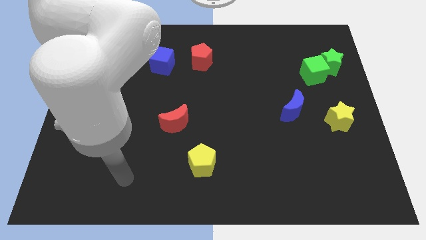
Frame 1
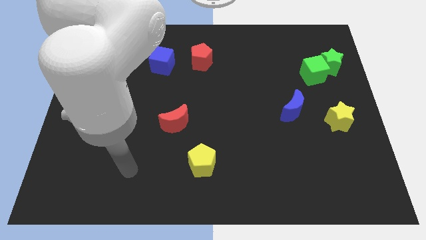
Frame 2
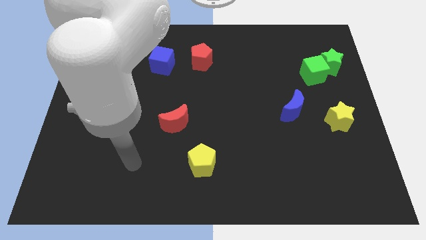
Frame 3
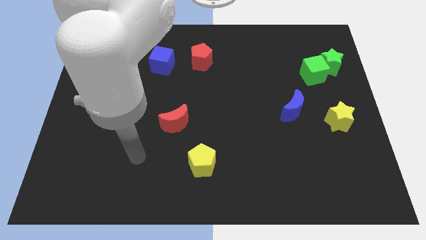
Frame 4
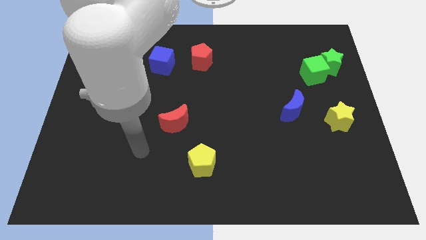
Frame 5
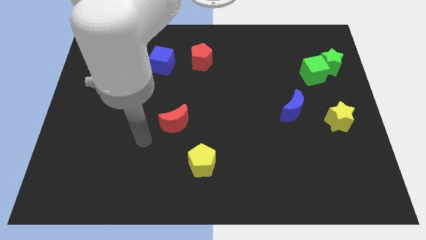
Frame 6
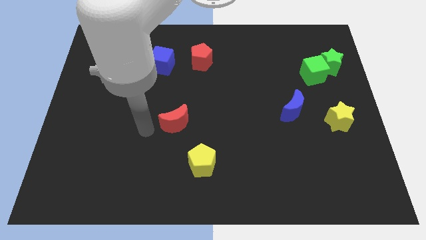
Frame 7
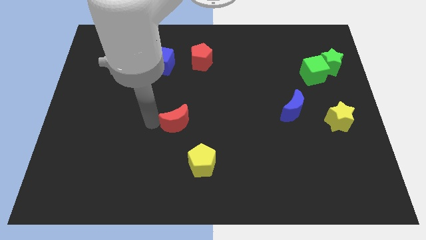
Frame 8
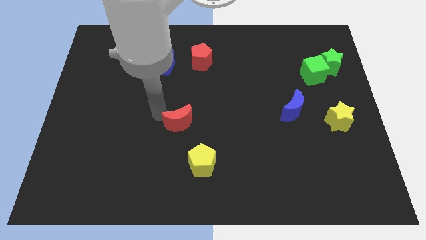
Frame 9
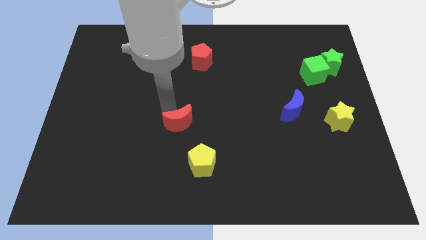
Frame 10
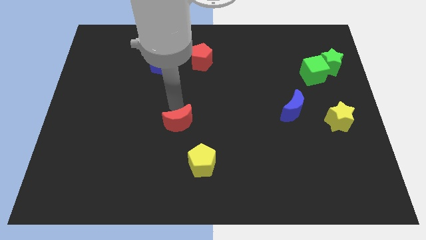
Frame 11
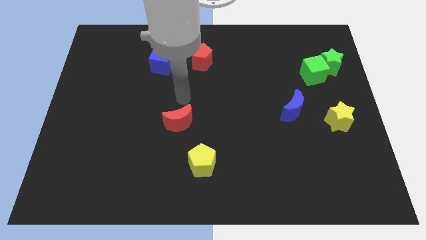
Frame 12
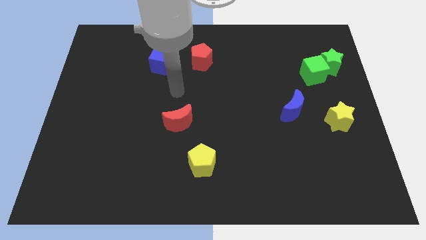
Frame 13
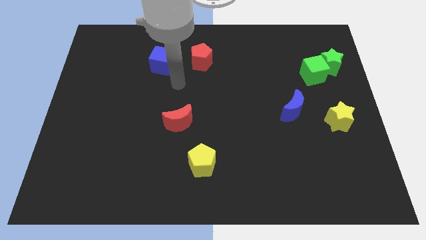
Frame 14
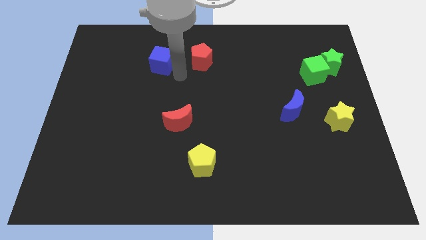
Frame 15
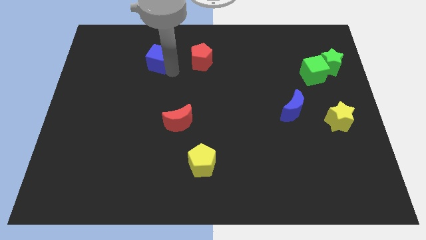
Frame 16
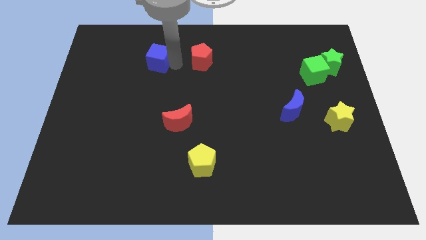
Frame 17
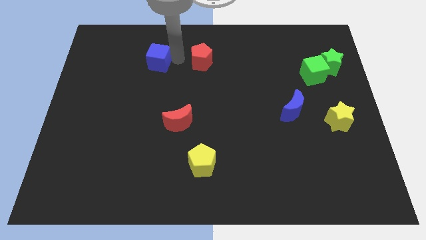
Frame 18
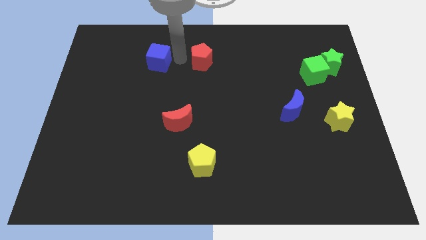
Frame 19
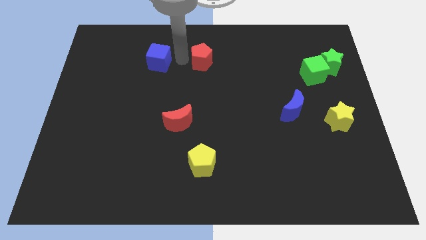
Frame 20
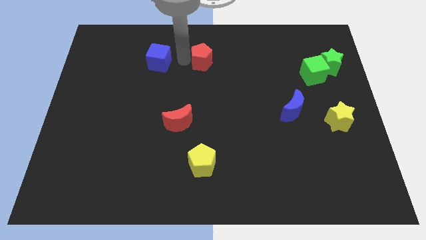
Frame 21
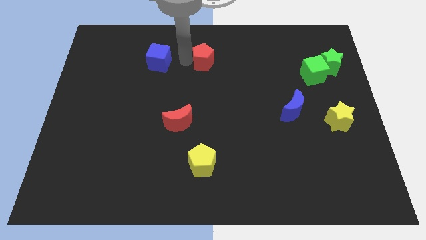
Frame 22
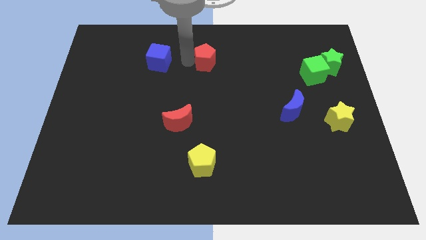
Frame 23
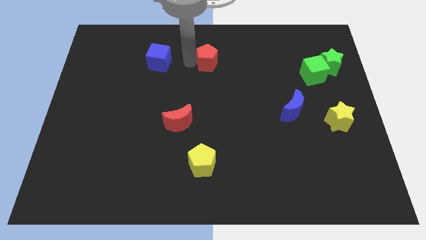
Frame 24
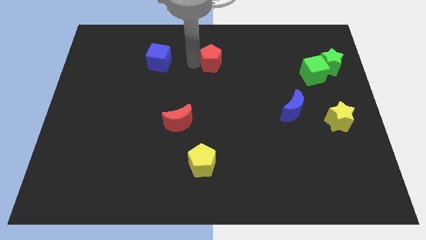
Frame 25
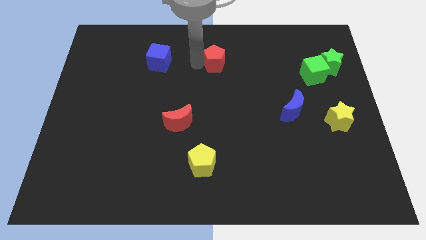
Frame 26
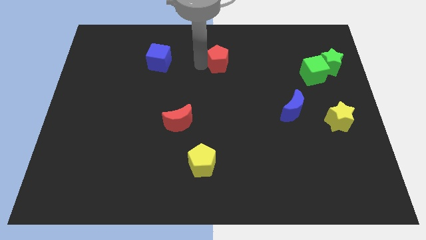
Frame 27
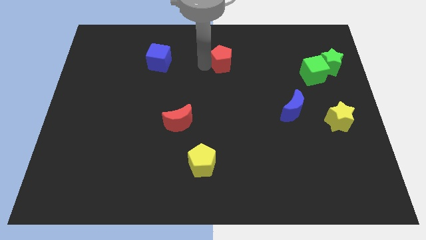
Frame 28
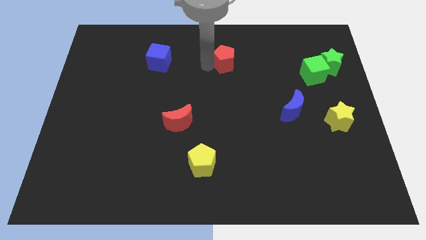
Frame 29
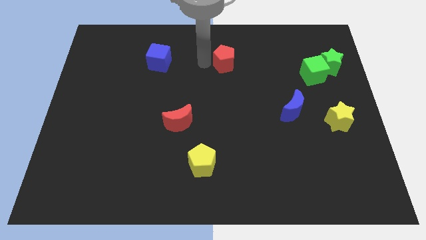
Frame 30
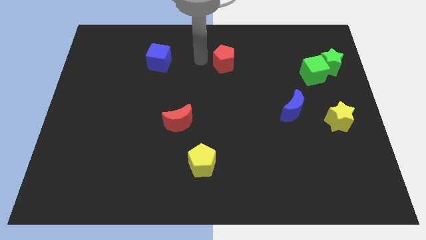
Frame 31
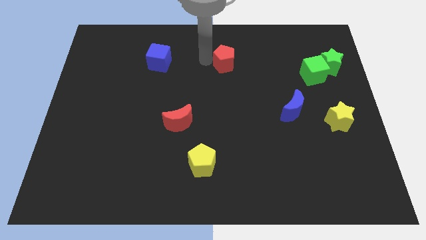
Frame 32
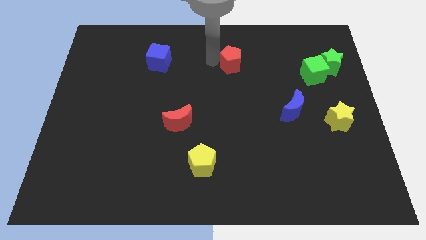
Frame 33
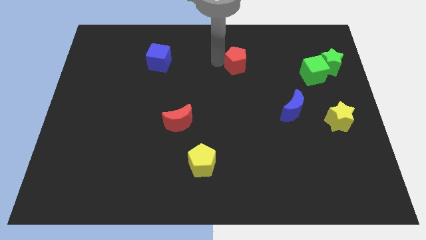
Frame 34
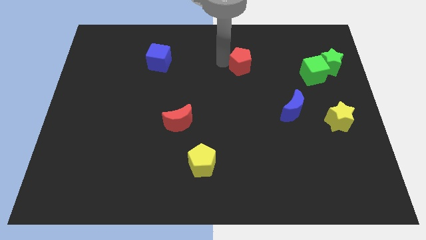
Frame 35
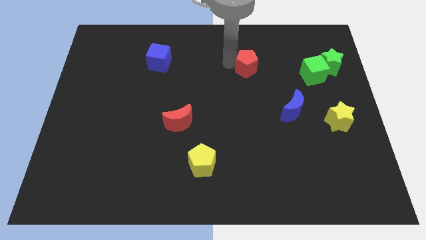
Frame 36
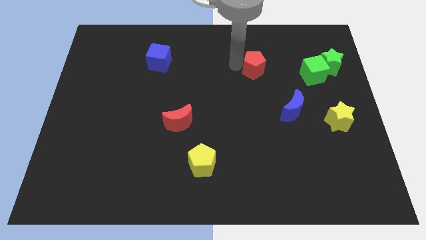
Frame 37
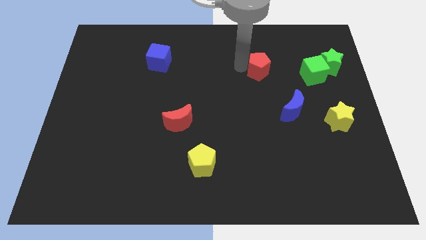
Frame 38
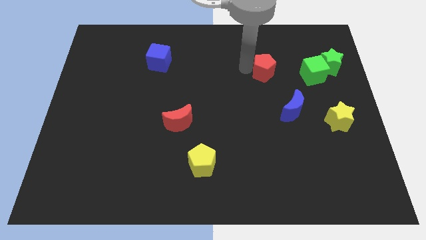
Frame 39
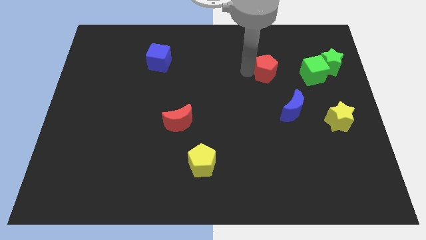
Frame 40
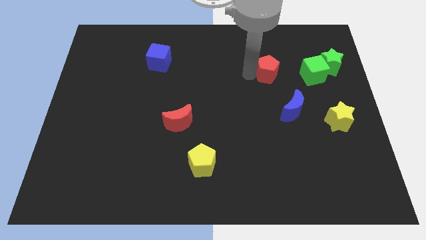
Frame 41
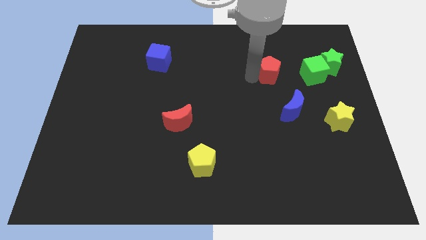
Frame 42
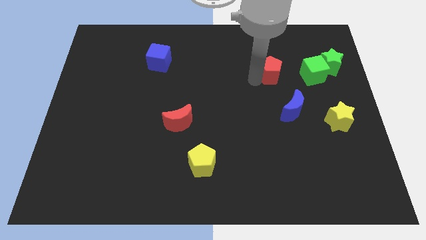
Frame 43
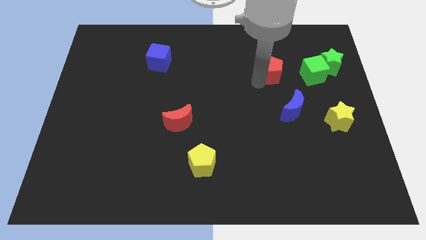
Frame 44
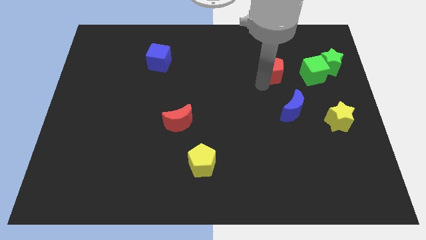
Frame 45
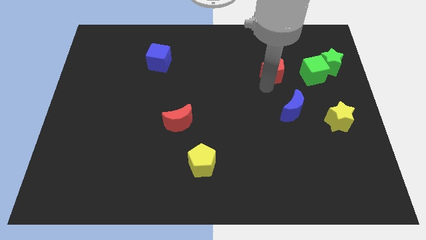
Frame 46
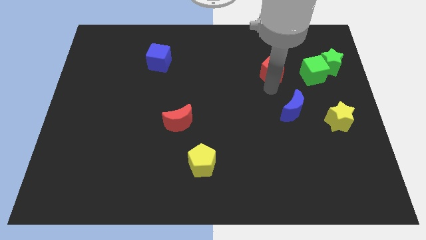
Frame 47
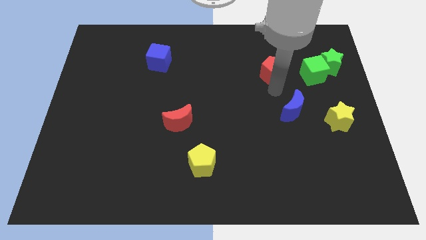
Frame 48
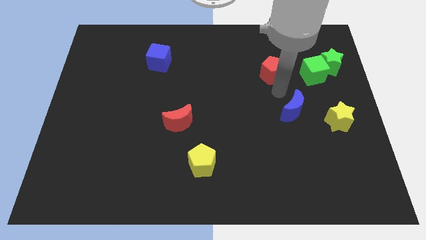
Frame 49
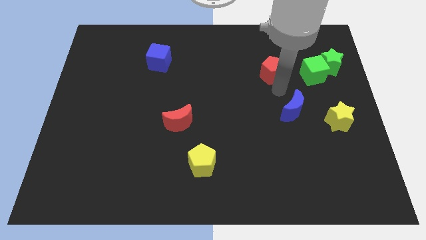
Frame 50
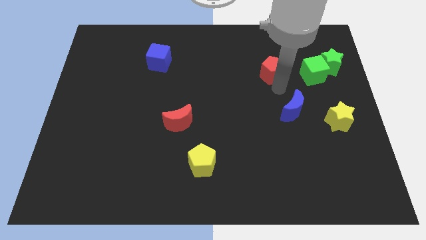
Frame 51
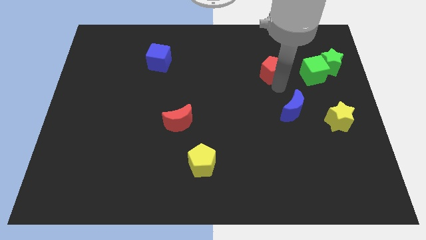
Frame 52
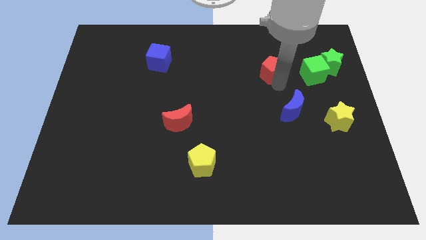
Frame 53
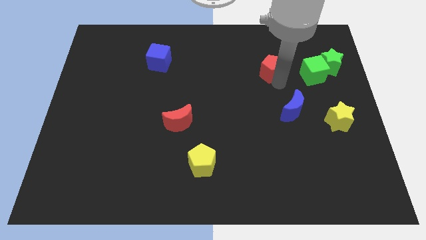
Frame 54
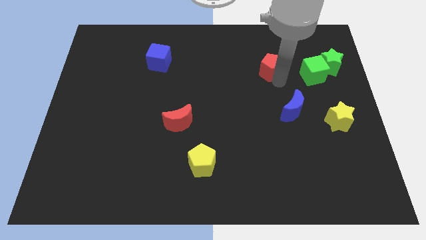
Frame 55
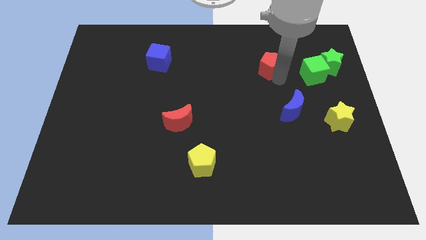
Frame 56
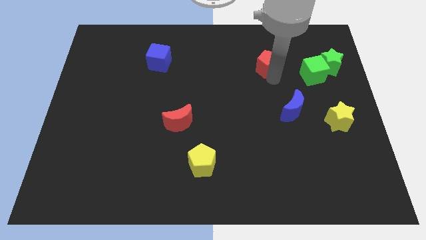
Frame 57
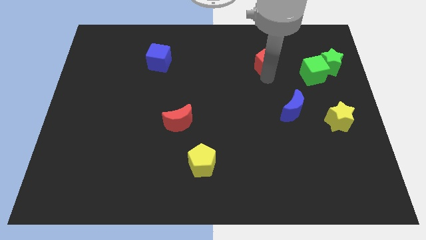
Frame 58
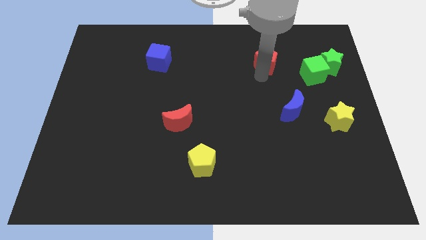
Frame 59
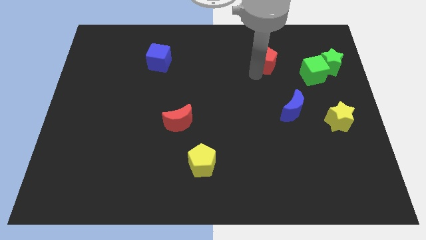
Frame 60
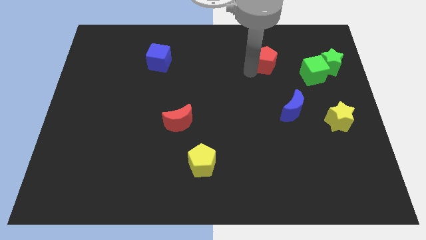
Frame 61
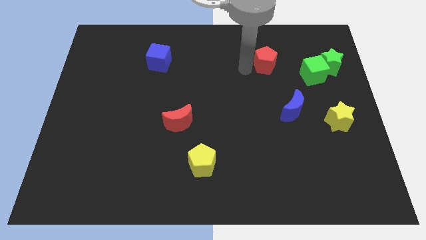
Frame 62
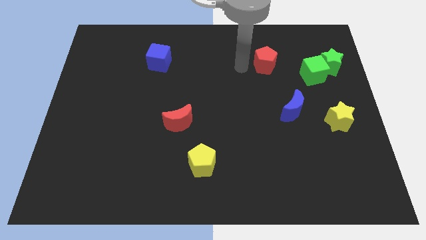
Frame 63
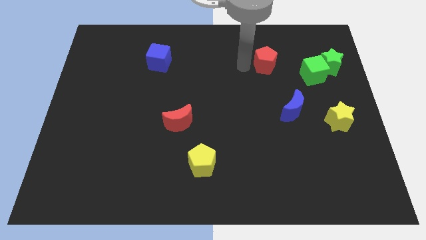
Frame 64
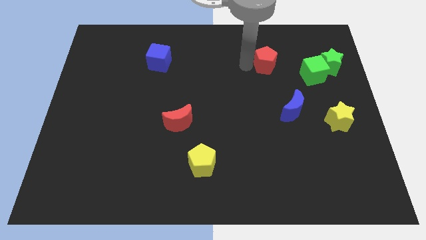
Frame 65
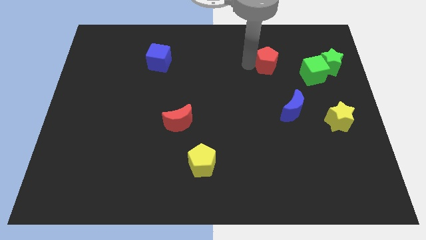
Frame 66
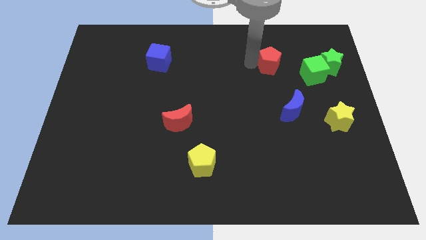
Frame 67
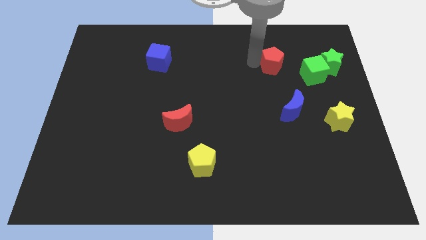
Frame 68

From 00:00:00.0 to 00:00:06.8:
push the red pentagon to the top left of the green cube

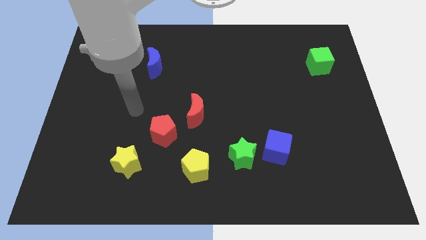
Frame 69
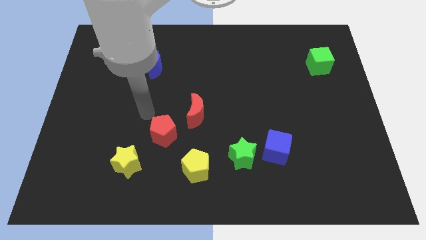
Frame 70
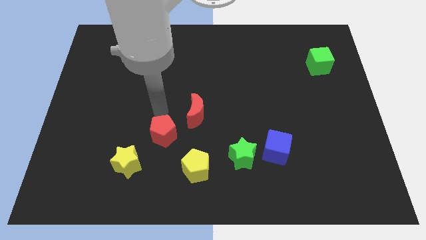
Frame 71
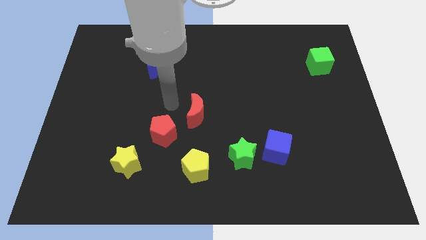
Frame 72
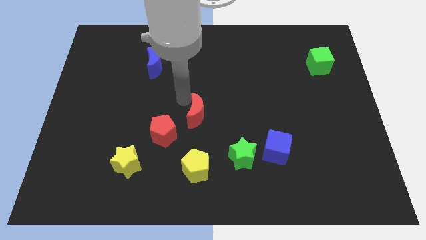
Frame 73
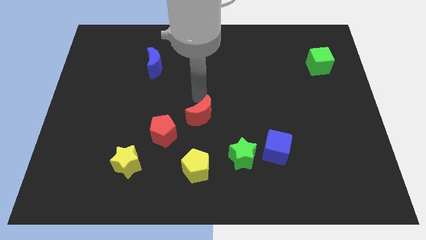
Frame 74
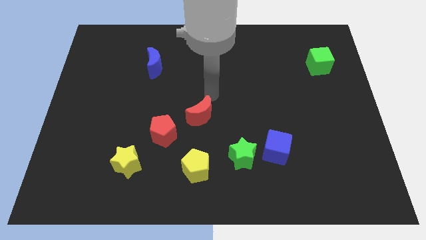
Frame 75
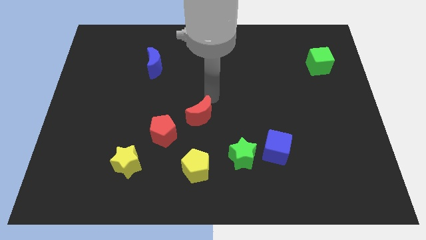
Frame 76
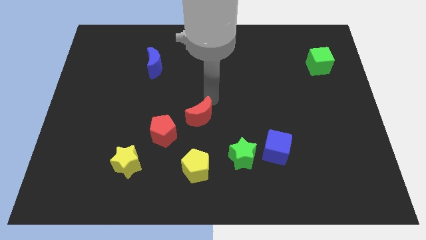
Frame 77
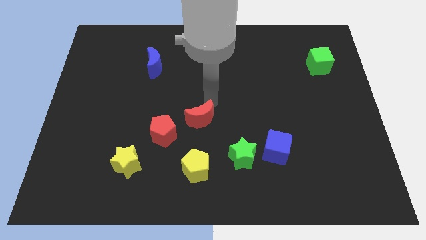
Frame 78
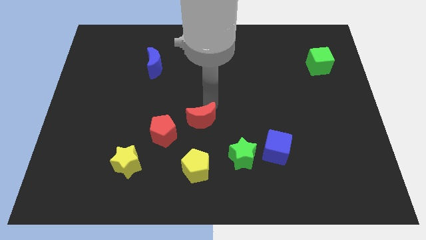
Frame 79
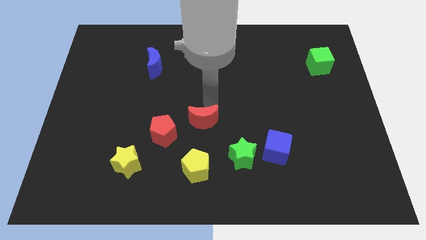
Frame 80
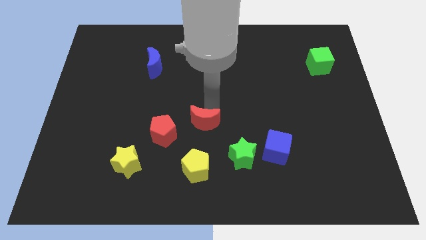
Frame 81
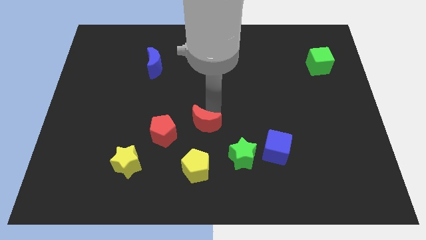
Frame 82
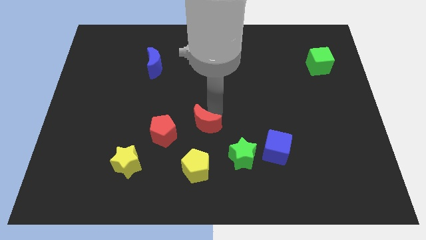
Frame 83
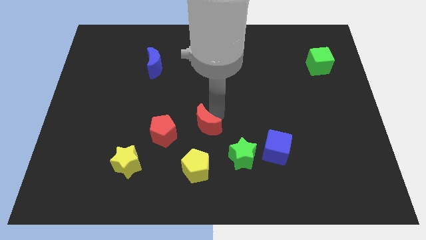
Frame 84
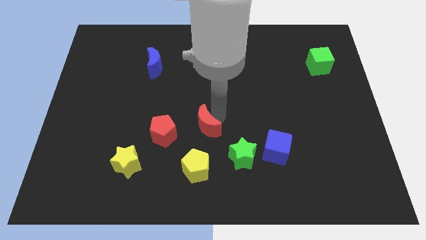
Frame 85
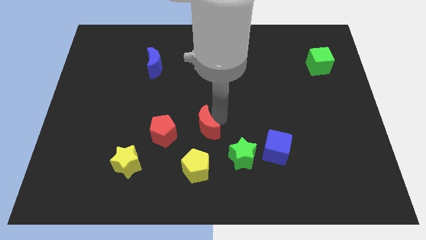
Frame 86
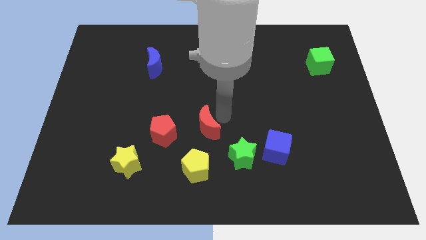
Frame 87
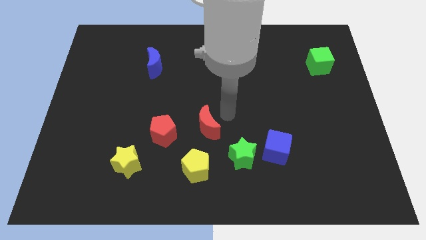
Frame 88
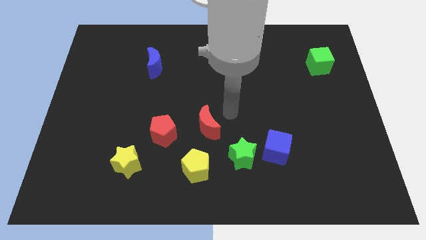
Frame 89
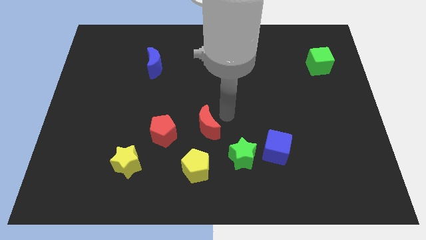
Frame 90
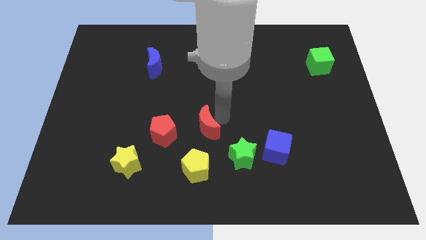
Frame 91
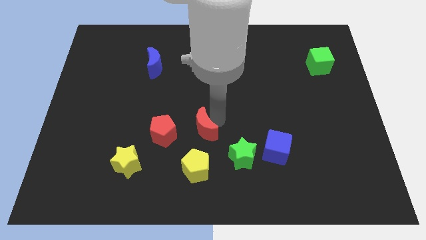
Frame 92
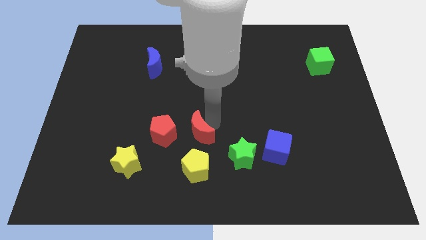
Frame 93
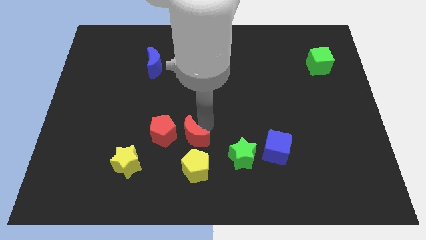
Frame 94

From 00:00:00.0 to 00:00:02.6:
slide the red moon to the left of the green star
